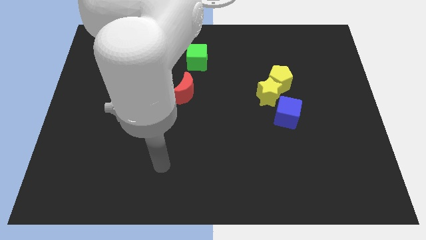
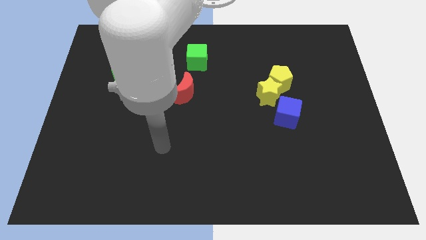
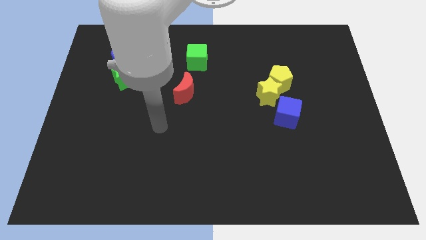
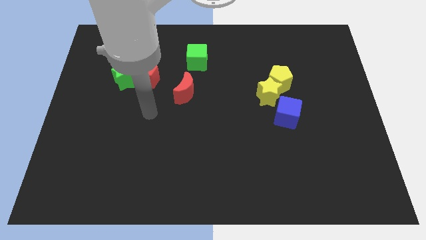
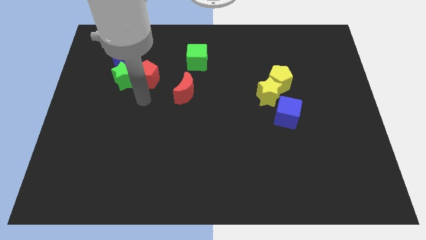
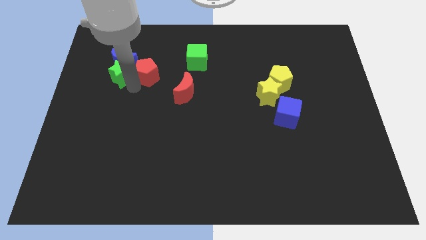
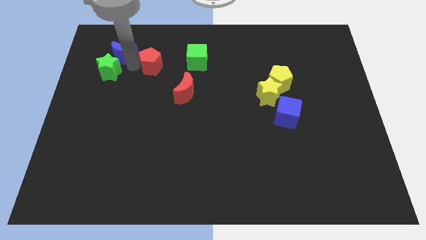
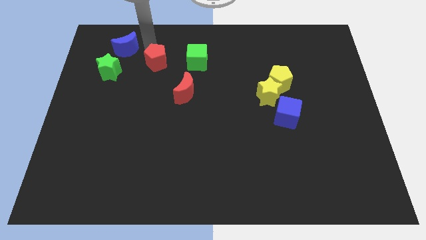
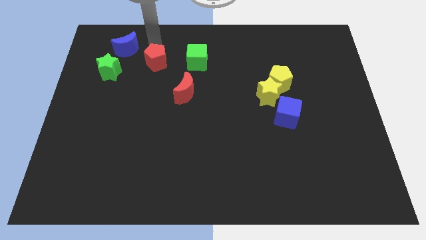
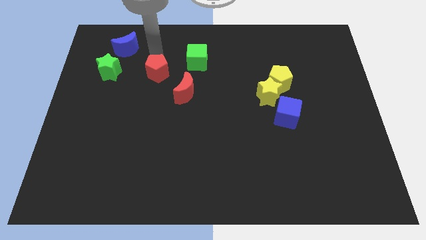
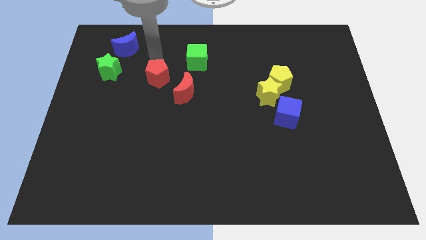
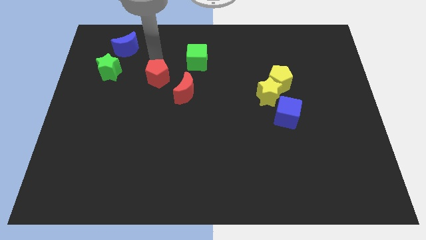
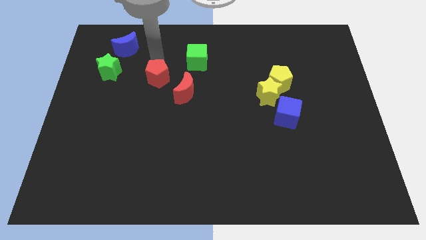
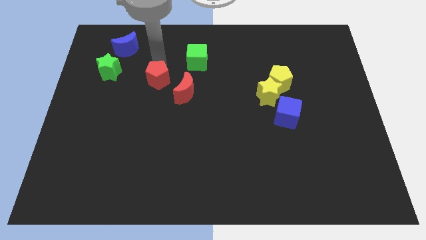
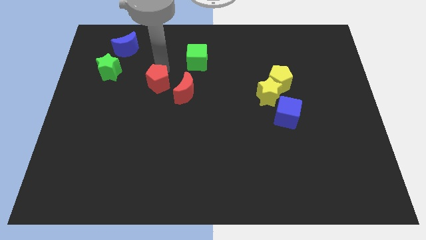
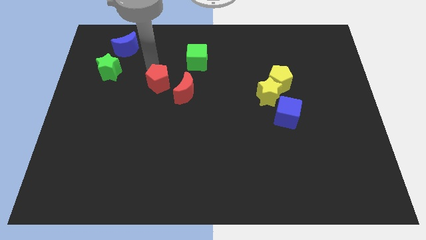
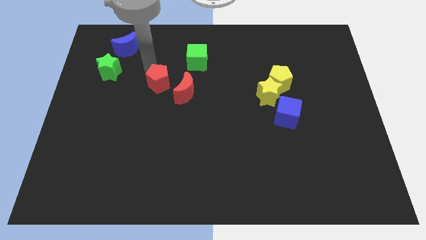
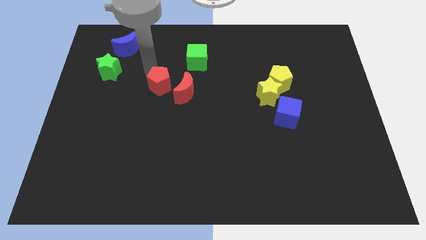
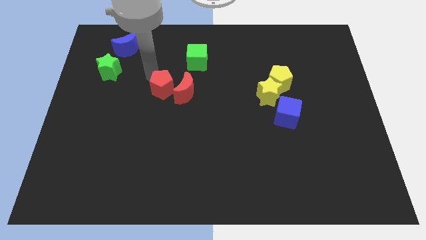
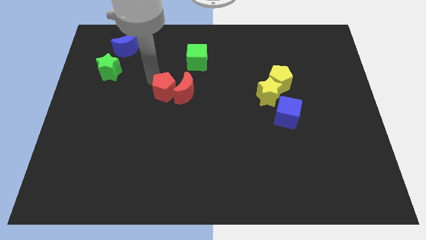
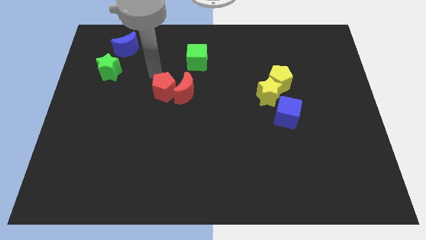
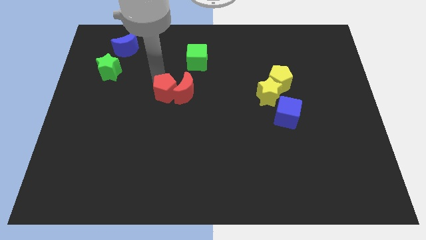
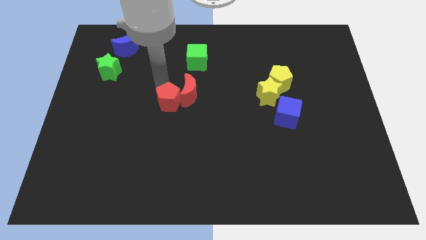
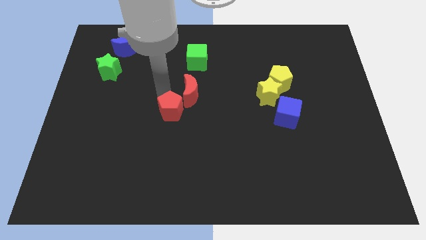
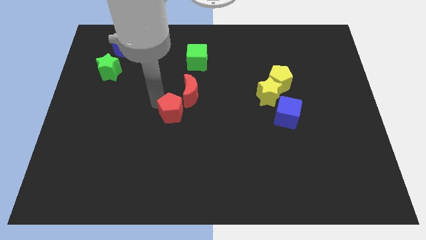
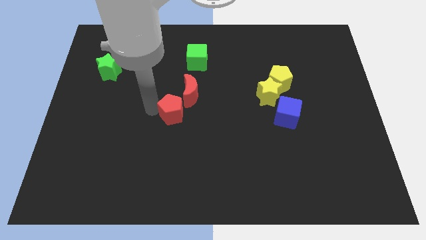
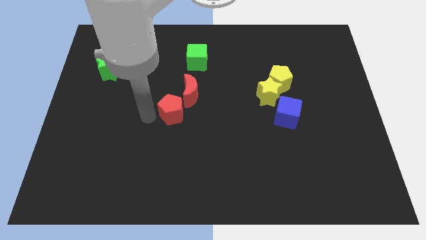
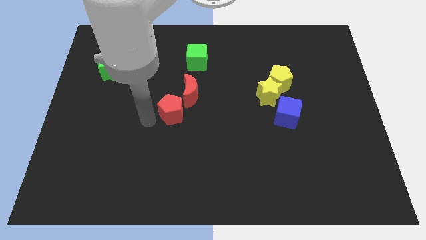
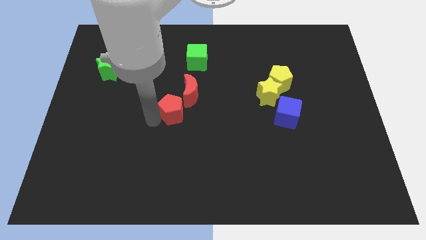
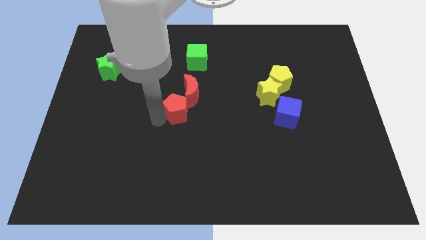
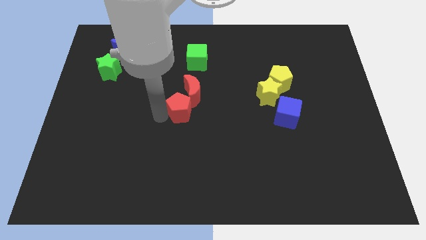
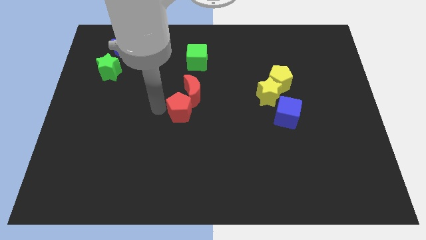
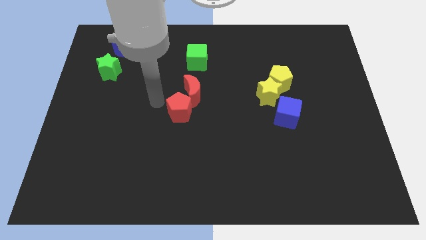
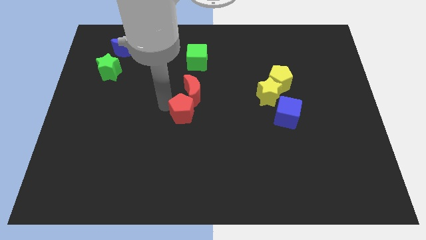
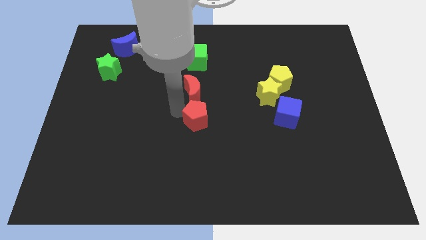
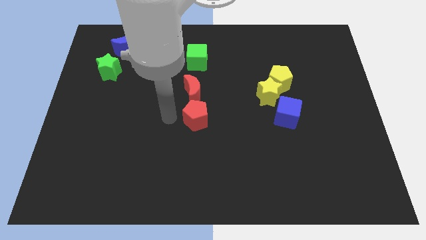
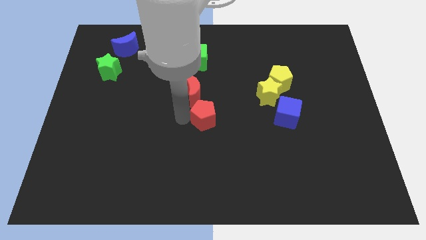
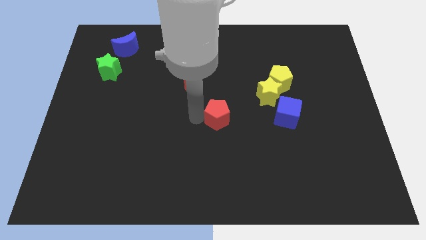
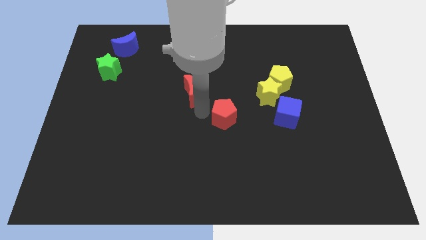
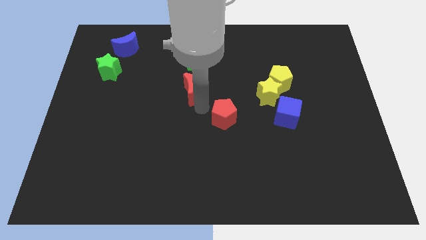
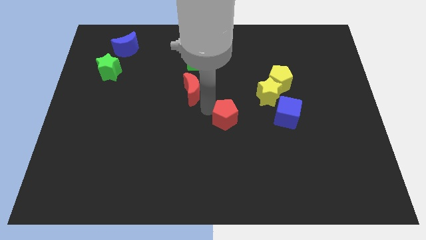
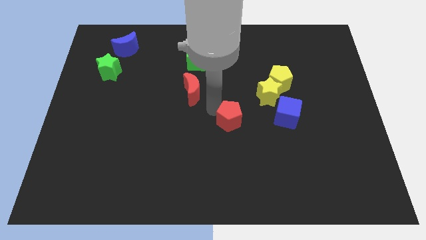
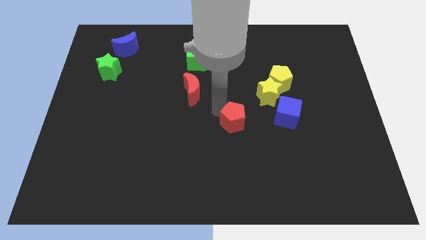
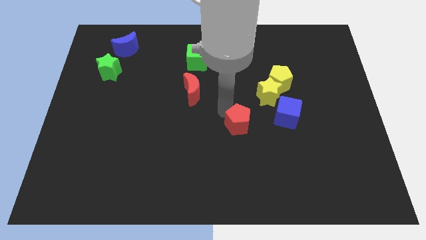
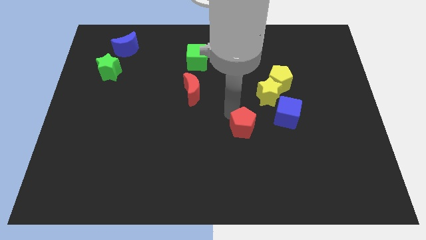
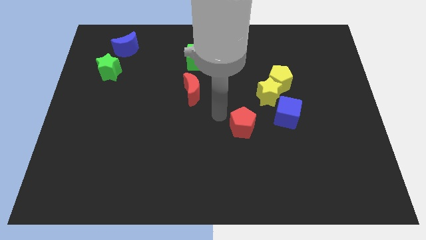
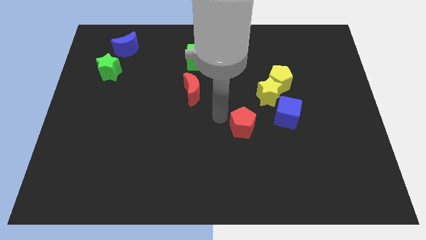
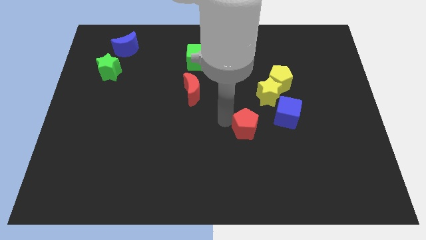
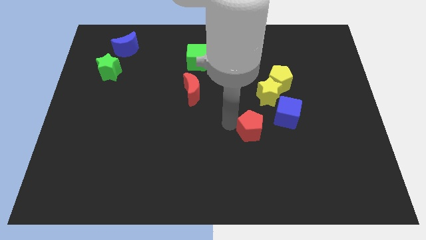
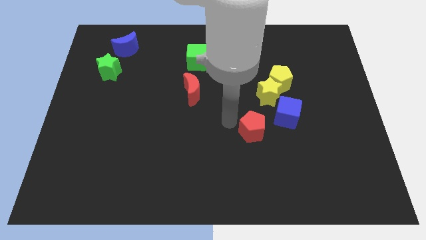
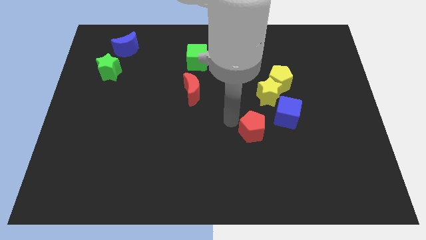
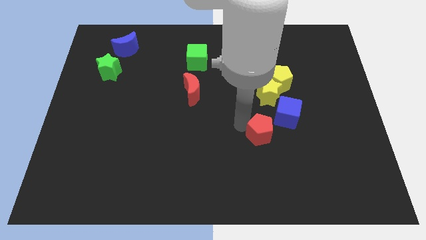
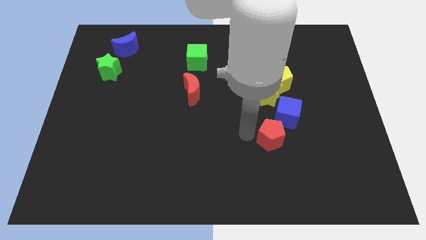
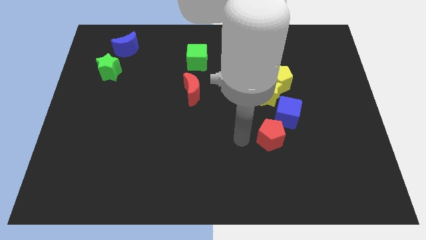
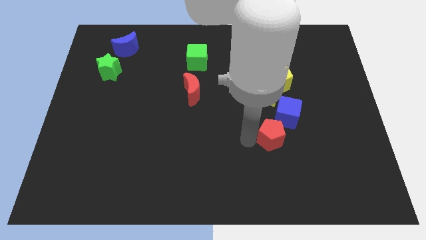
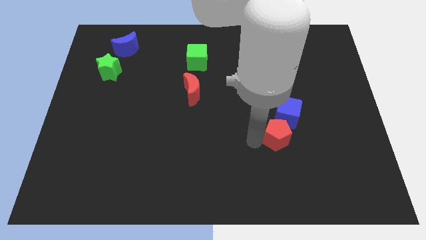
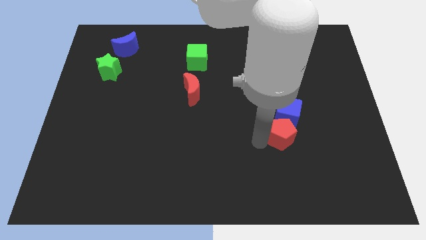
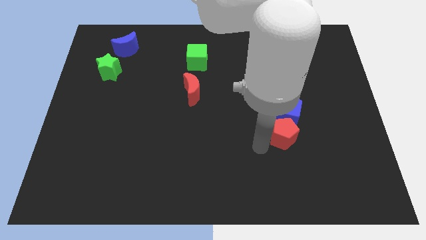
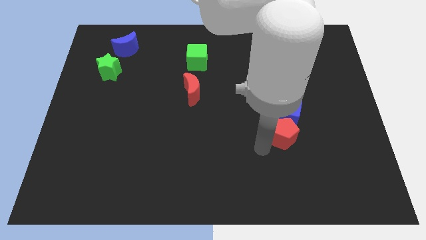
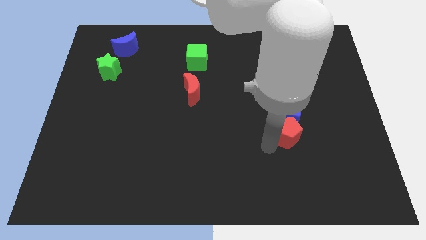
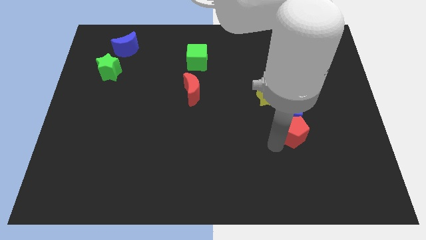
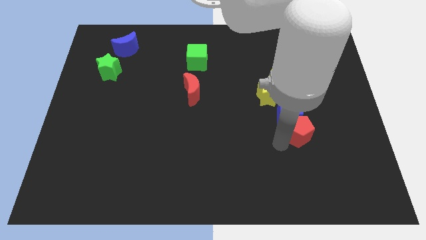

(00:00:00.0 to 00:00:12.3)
slide the red pentagon diagonally down and to the right of the yellow star

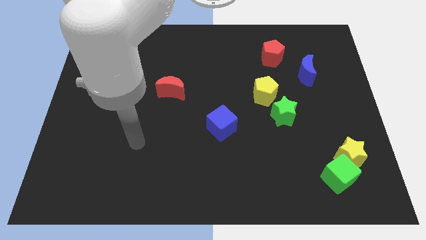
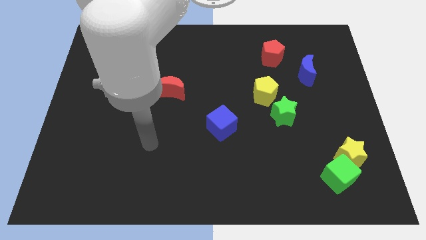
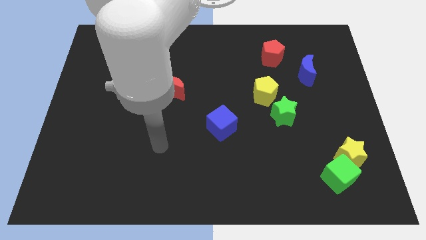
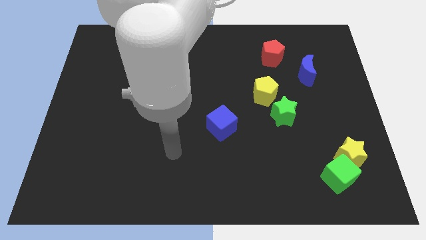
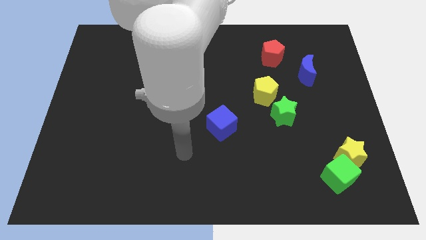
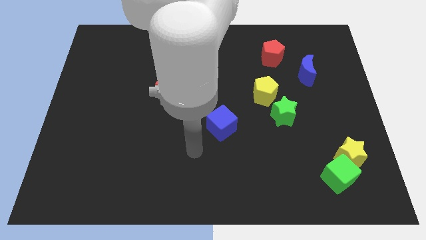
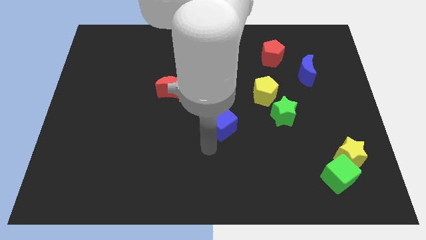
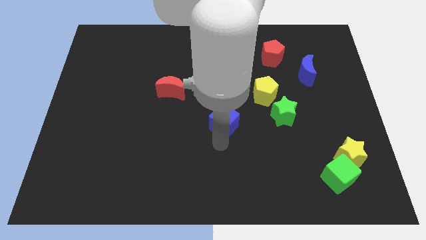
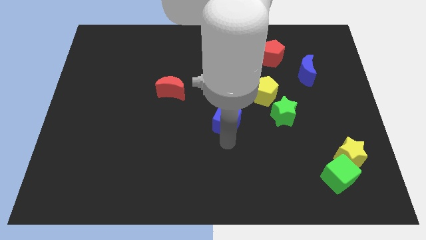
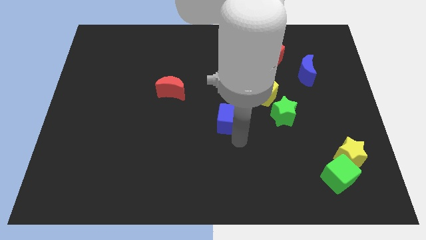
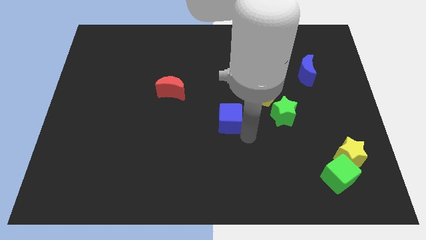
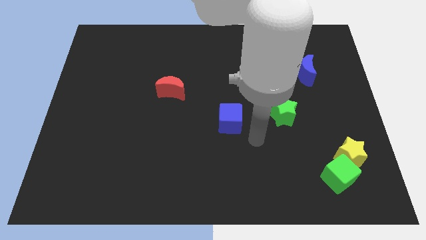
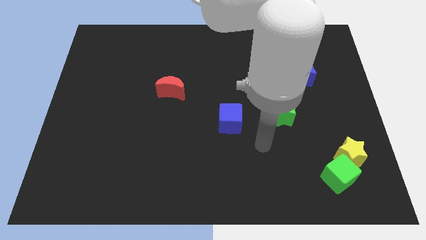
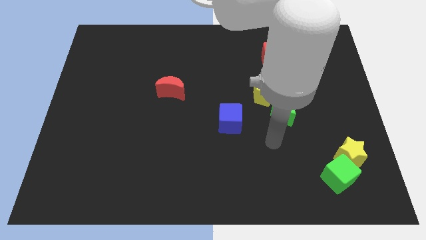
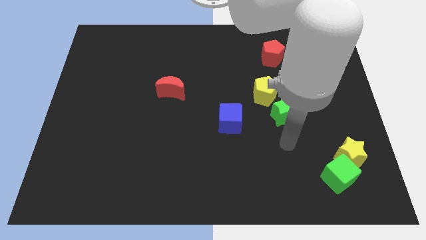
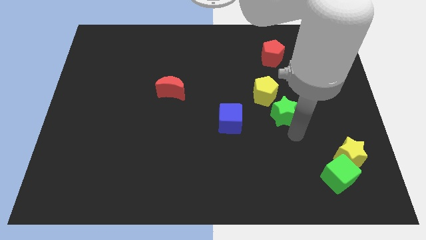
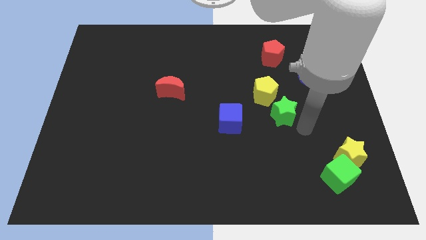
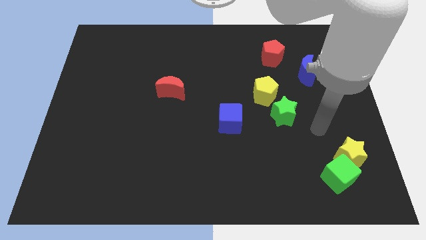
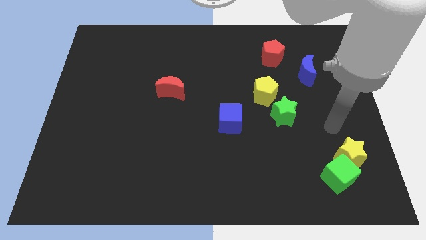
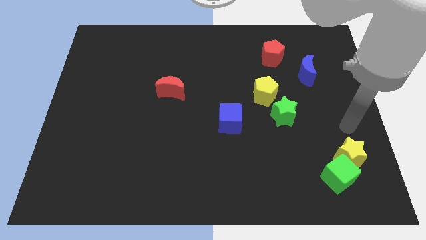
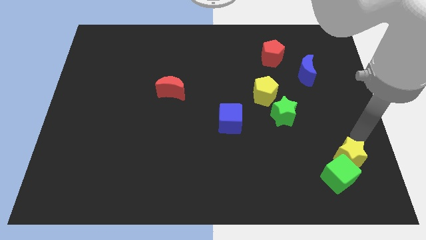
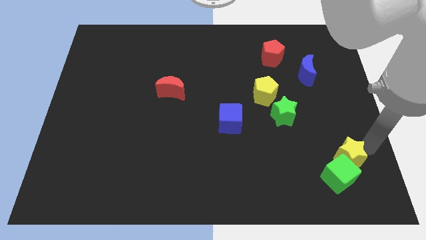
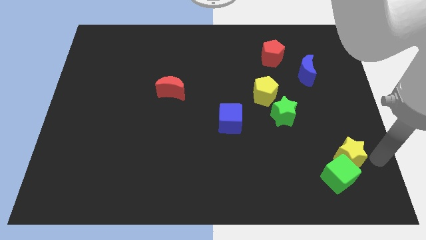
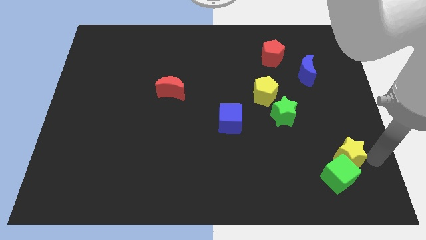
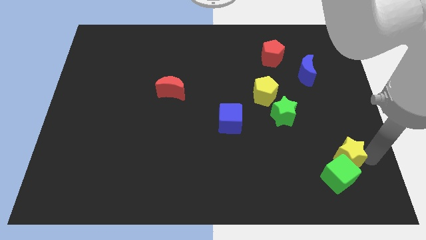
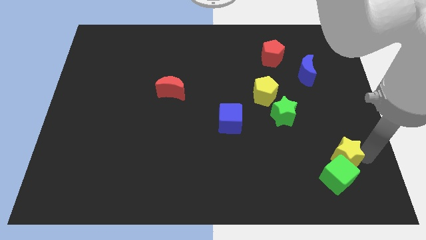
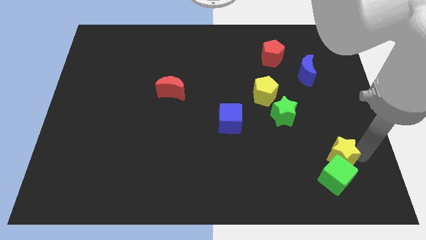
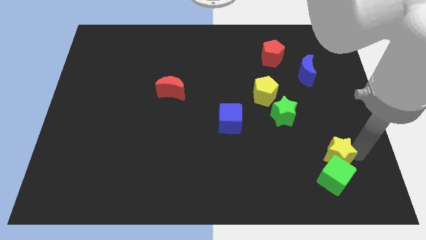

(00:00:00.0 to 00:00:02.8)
slide the yellow star to the top left side of the green cube
